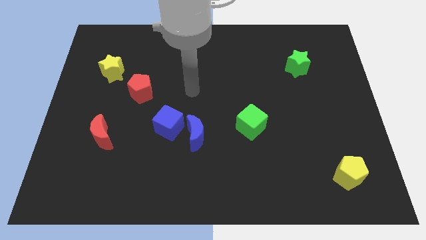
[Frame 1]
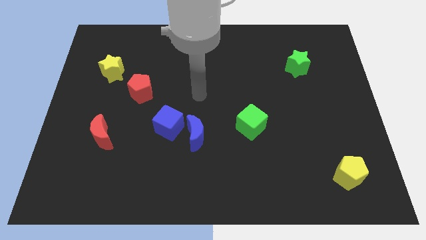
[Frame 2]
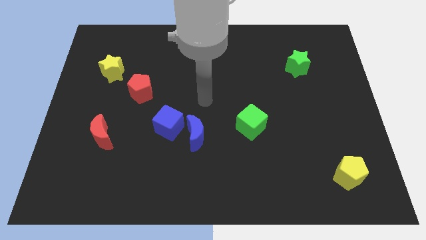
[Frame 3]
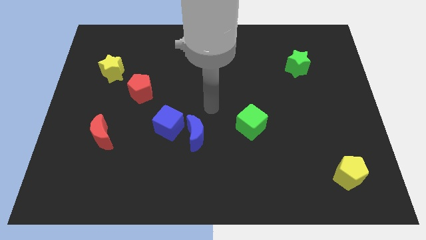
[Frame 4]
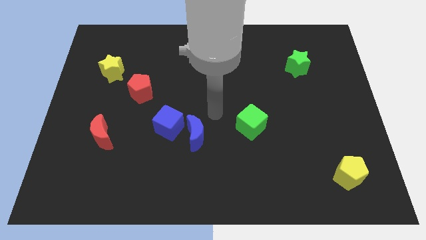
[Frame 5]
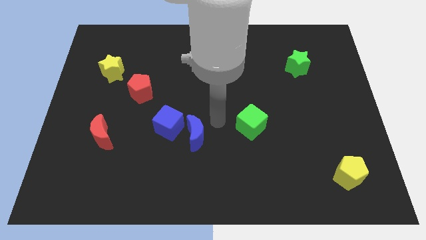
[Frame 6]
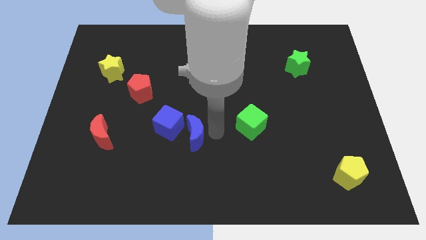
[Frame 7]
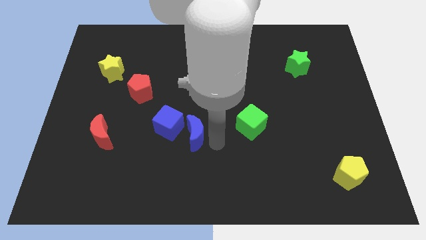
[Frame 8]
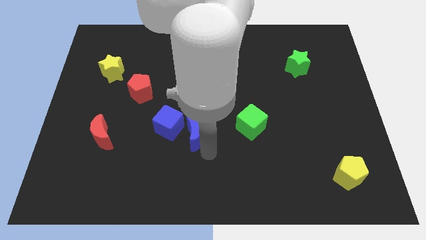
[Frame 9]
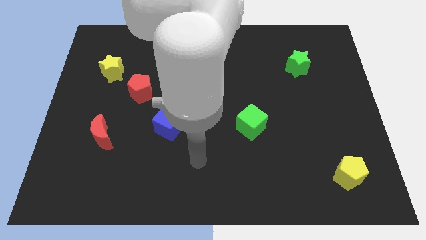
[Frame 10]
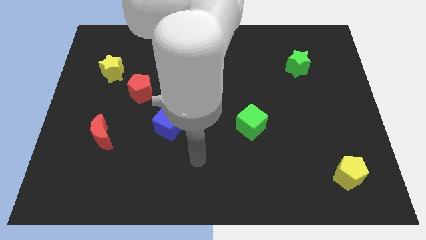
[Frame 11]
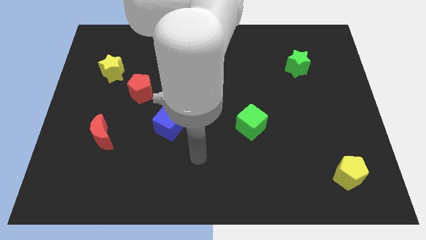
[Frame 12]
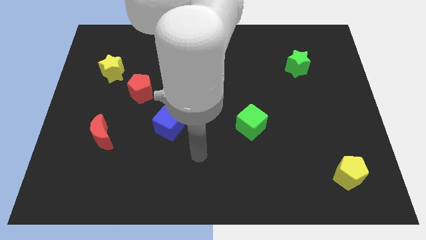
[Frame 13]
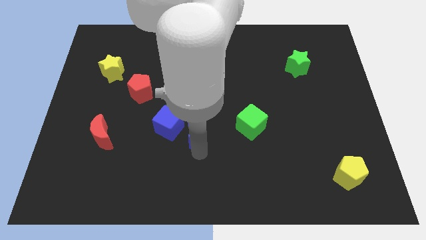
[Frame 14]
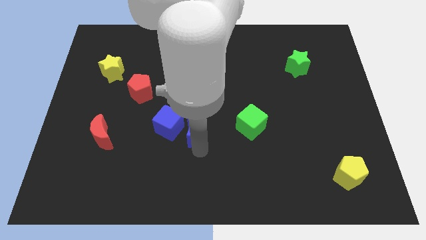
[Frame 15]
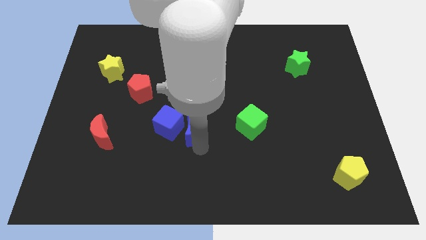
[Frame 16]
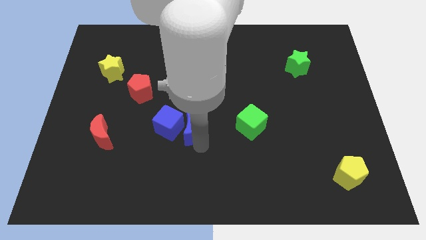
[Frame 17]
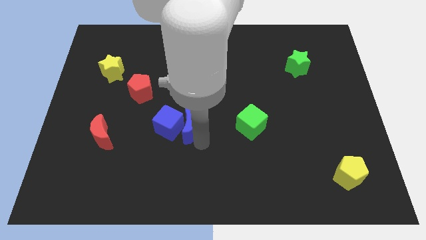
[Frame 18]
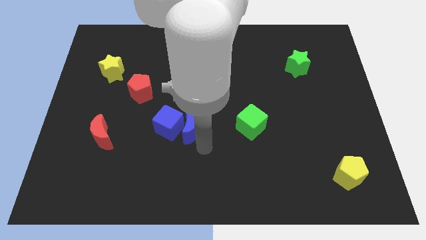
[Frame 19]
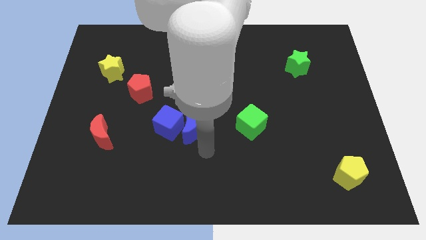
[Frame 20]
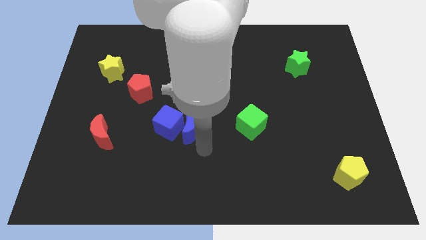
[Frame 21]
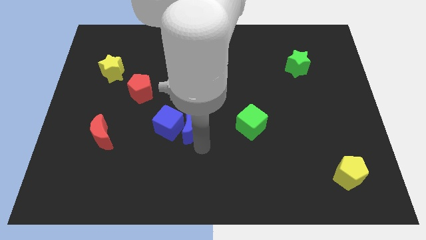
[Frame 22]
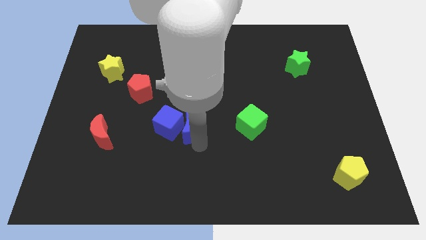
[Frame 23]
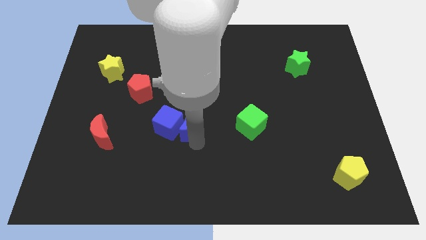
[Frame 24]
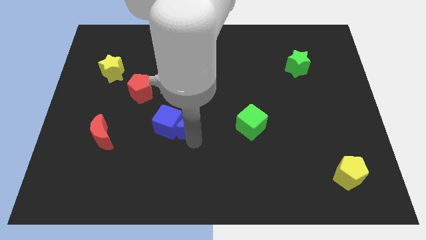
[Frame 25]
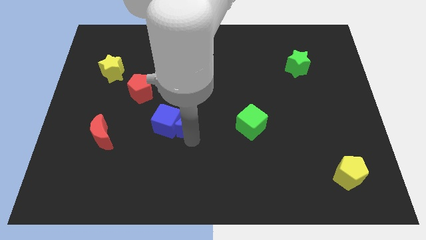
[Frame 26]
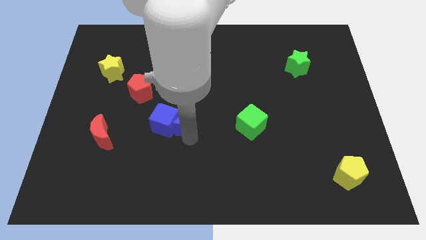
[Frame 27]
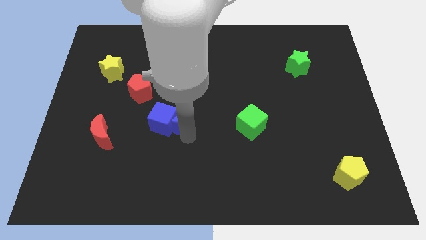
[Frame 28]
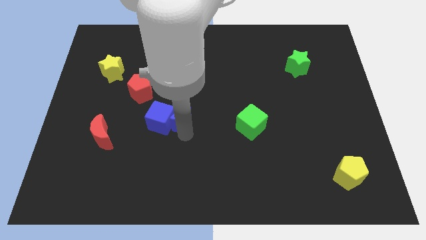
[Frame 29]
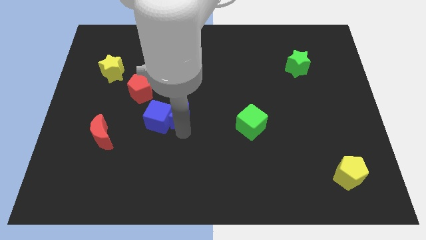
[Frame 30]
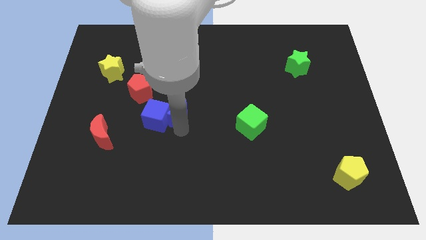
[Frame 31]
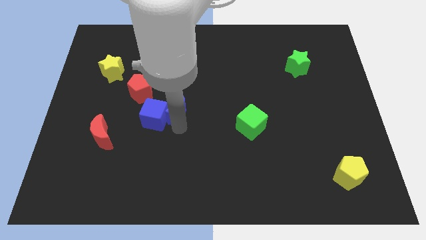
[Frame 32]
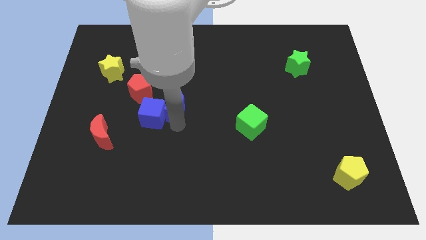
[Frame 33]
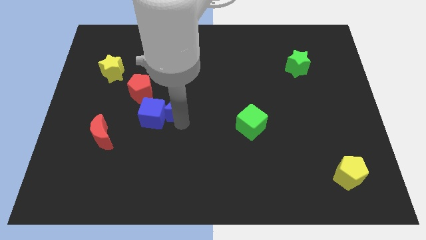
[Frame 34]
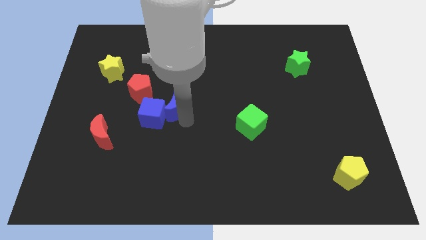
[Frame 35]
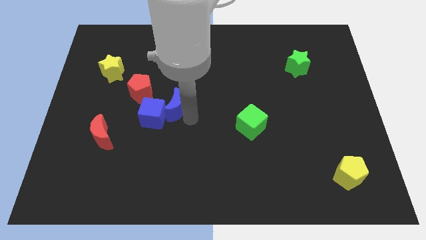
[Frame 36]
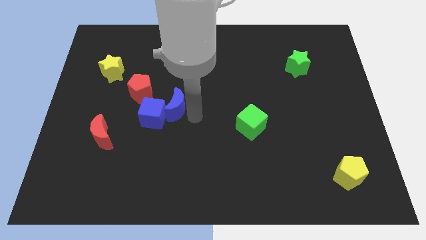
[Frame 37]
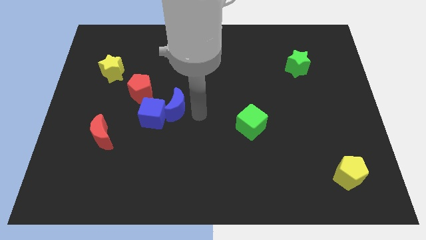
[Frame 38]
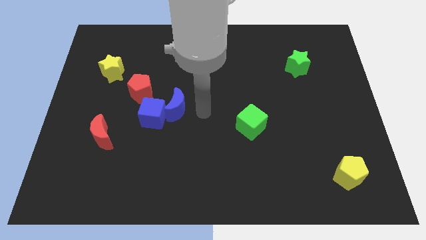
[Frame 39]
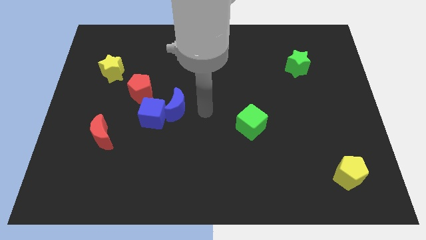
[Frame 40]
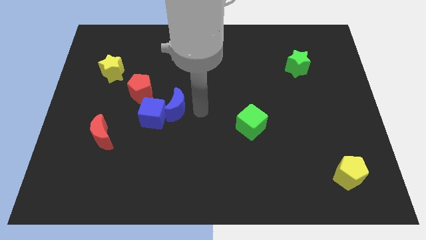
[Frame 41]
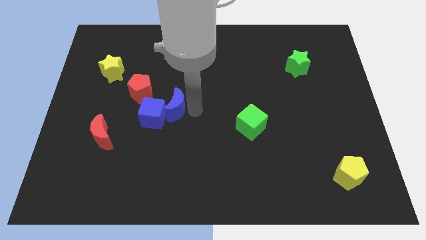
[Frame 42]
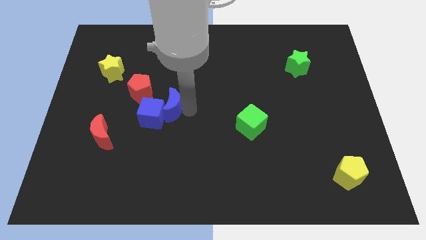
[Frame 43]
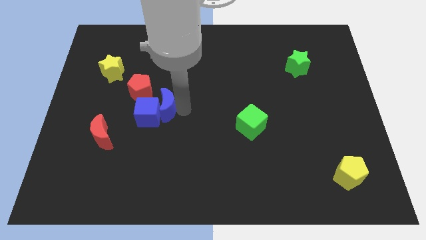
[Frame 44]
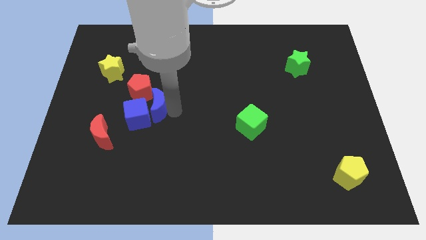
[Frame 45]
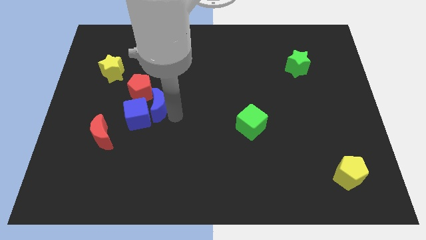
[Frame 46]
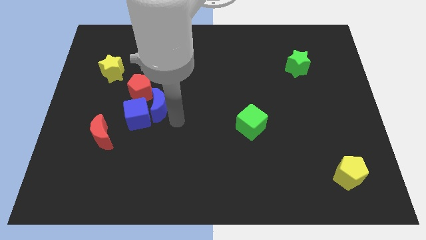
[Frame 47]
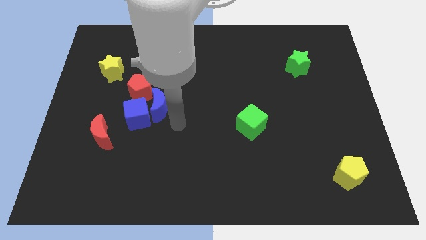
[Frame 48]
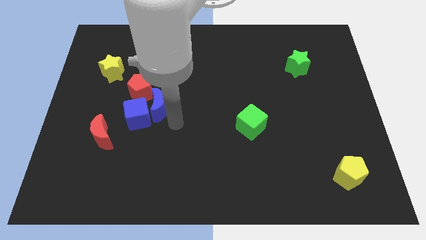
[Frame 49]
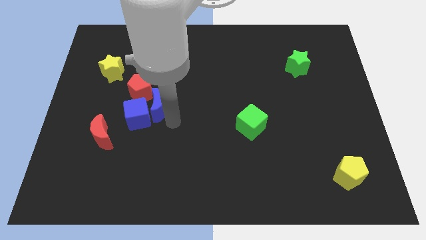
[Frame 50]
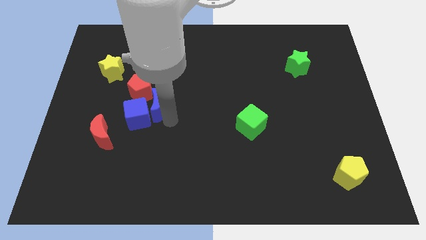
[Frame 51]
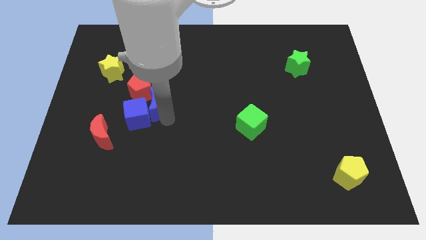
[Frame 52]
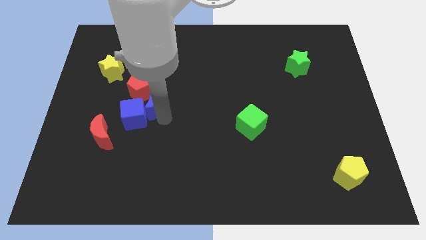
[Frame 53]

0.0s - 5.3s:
push the blue moon towards the red pentagon

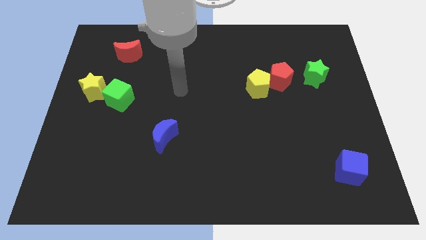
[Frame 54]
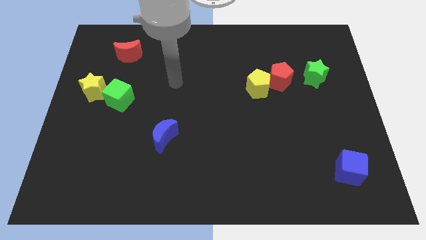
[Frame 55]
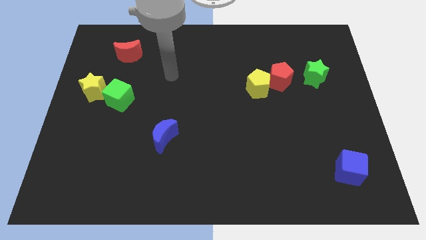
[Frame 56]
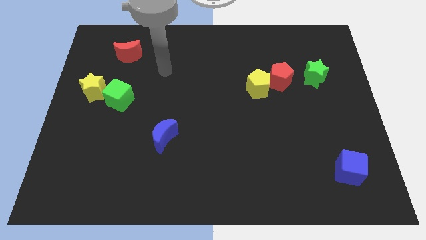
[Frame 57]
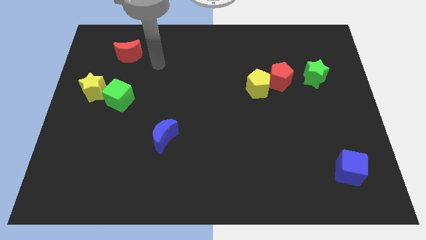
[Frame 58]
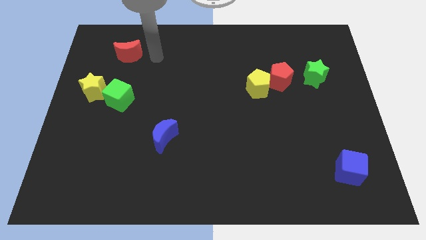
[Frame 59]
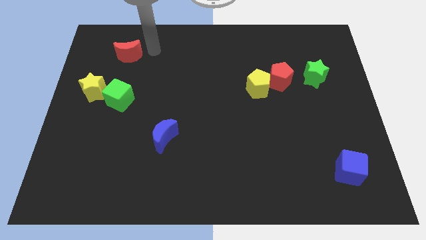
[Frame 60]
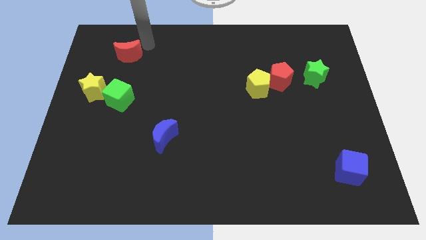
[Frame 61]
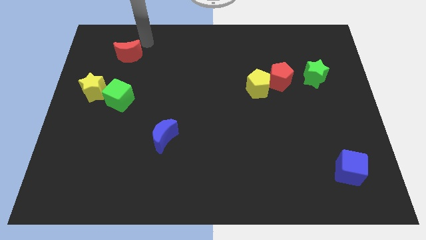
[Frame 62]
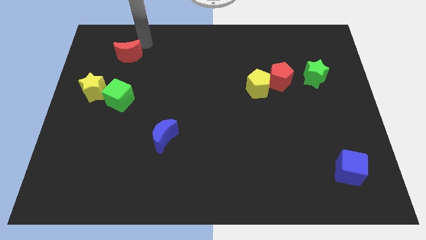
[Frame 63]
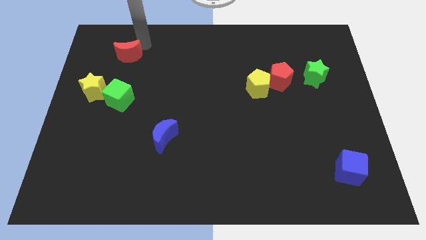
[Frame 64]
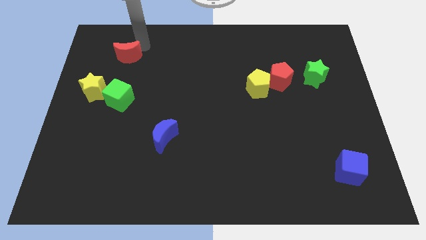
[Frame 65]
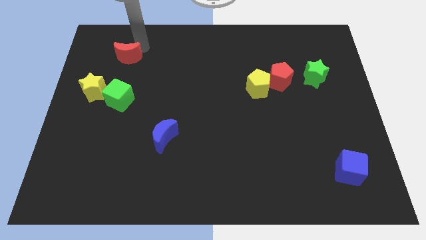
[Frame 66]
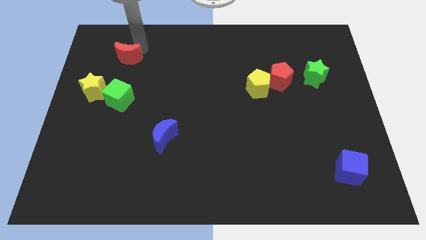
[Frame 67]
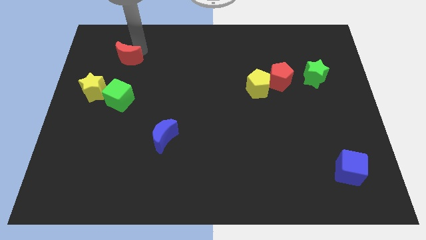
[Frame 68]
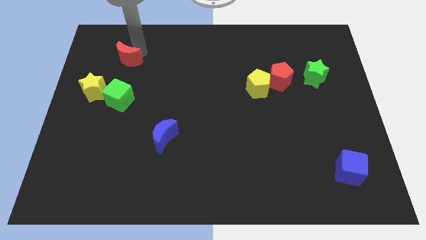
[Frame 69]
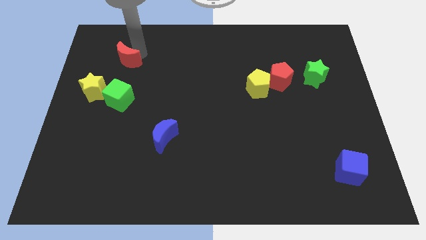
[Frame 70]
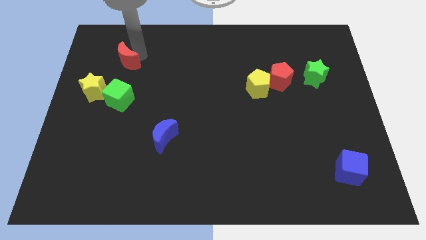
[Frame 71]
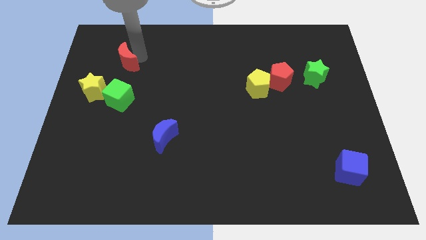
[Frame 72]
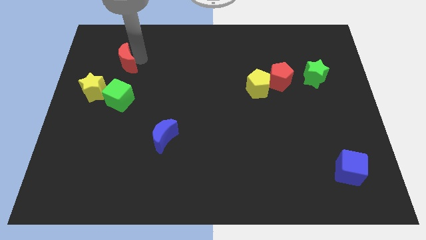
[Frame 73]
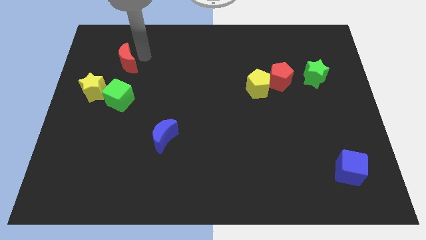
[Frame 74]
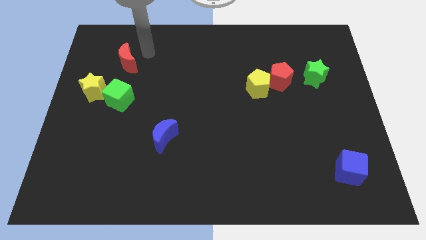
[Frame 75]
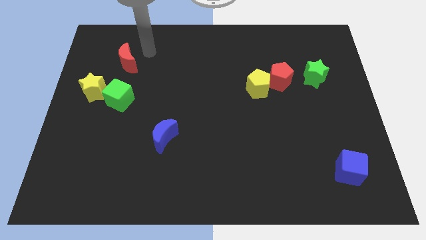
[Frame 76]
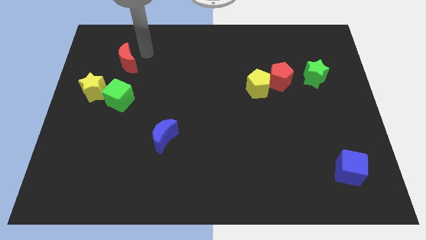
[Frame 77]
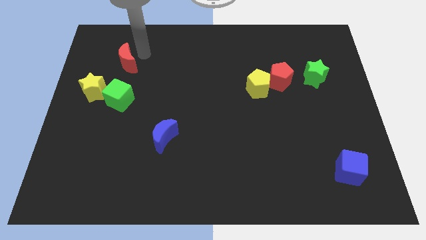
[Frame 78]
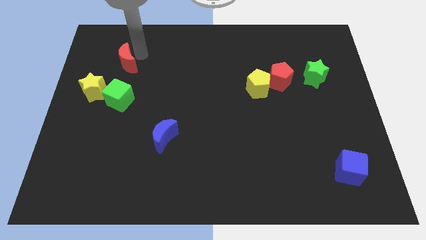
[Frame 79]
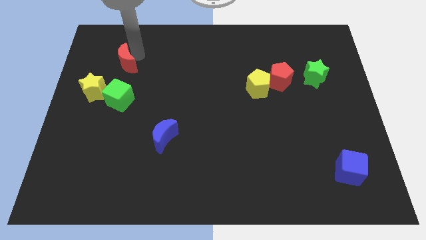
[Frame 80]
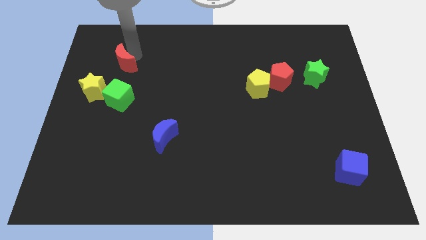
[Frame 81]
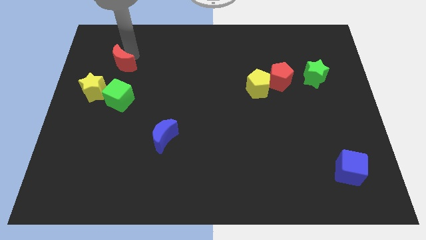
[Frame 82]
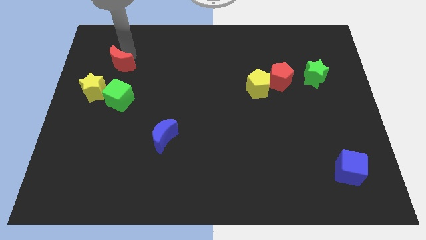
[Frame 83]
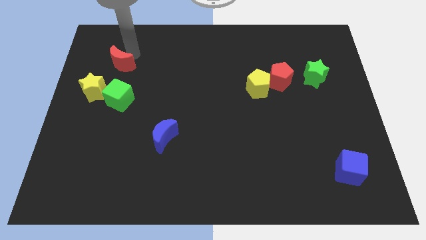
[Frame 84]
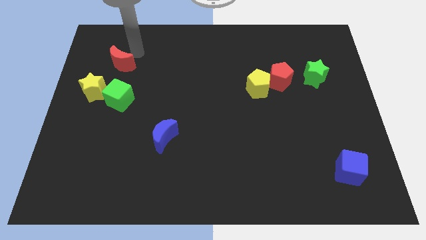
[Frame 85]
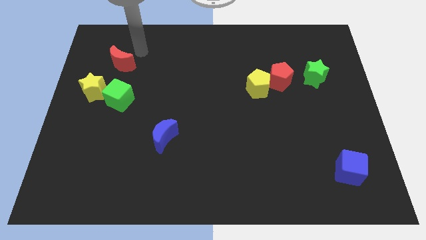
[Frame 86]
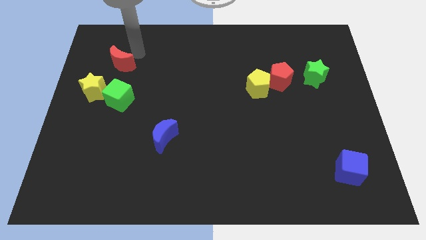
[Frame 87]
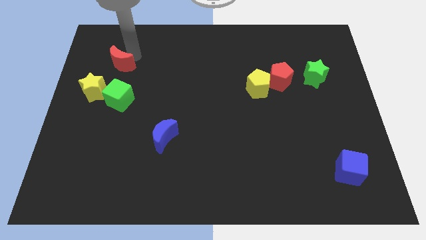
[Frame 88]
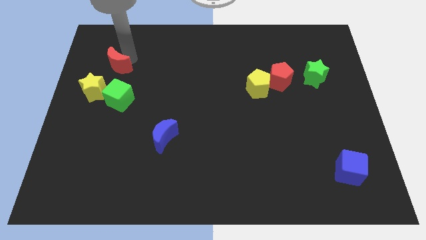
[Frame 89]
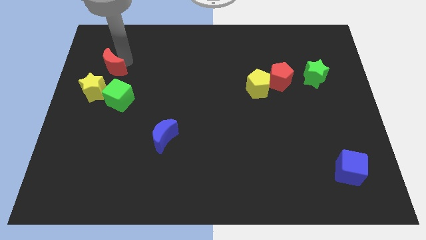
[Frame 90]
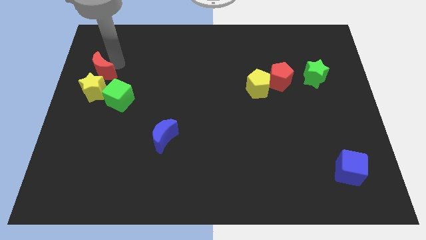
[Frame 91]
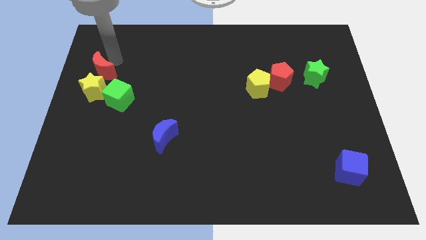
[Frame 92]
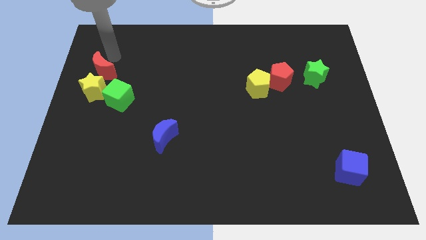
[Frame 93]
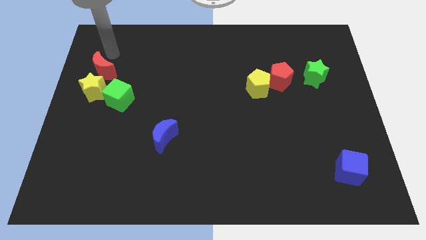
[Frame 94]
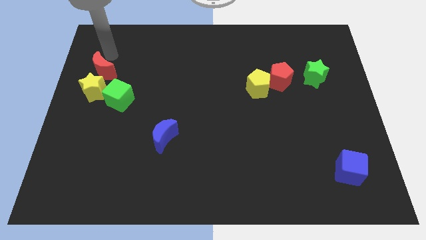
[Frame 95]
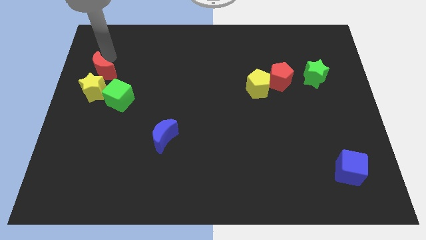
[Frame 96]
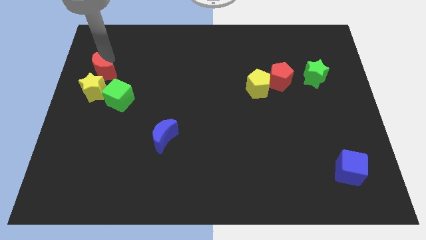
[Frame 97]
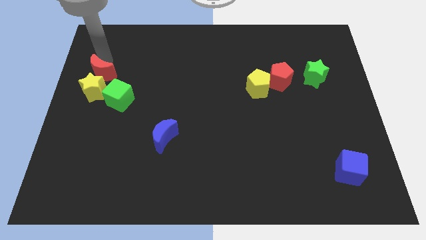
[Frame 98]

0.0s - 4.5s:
slide the red moon to the yellow star
